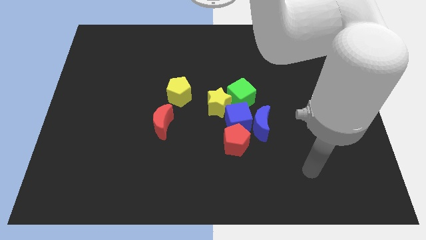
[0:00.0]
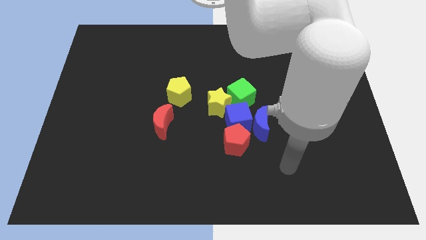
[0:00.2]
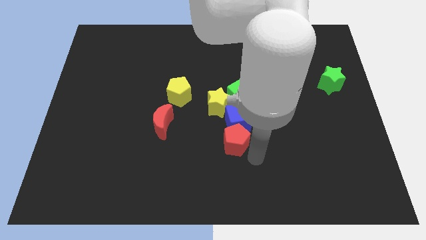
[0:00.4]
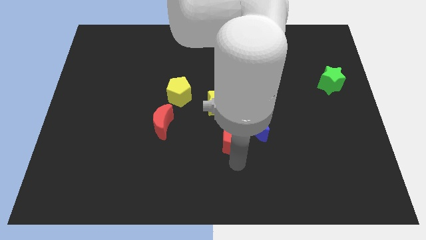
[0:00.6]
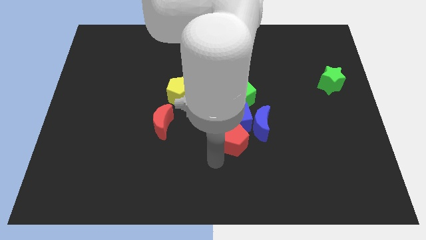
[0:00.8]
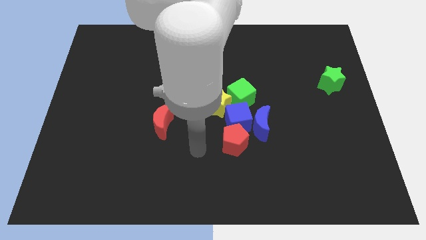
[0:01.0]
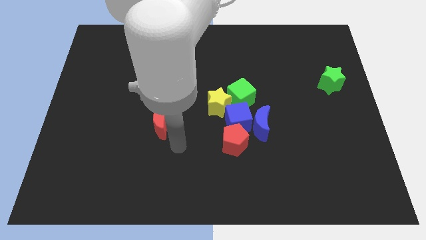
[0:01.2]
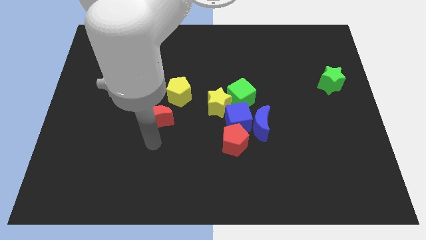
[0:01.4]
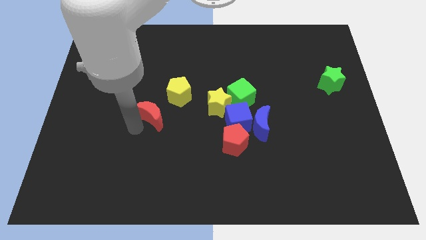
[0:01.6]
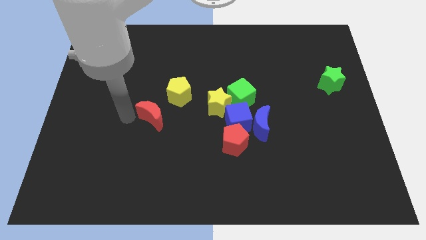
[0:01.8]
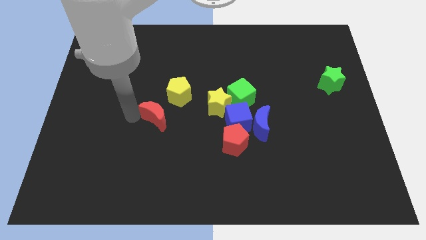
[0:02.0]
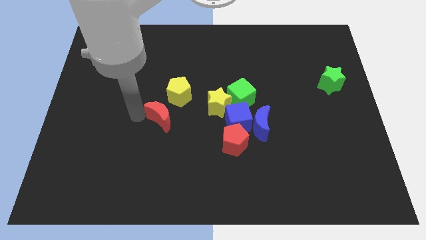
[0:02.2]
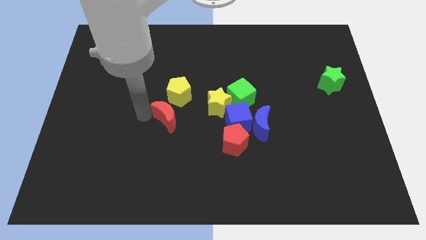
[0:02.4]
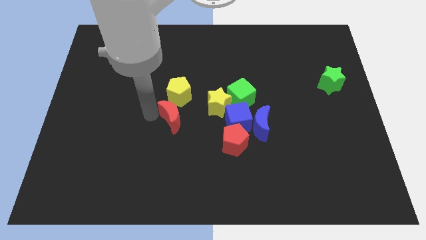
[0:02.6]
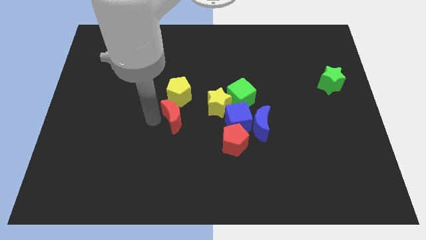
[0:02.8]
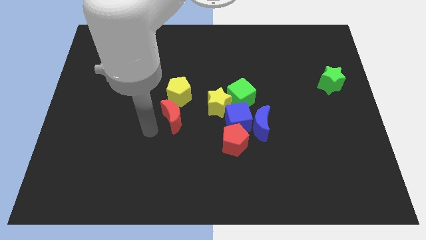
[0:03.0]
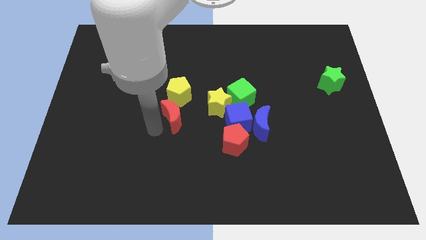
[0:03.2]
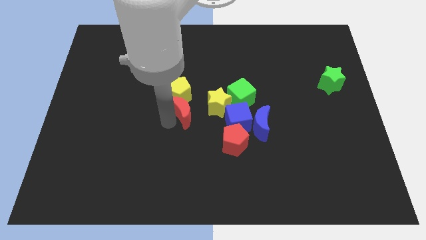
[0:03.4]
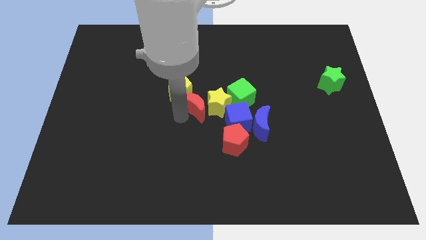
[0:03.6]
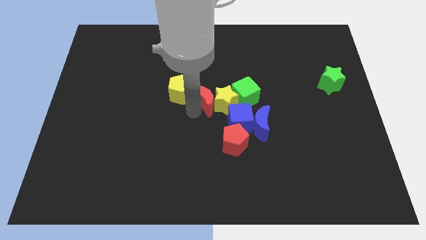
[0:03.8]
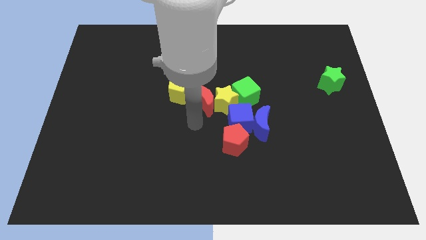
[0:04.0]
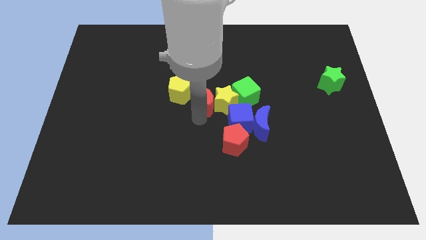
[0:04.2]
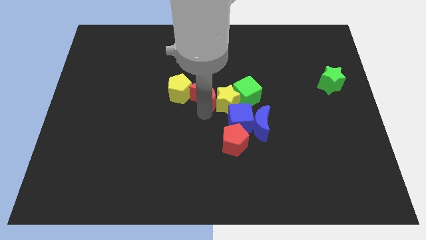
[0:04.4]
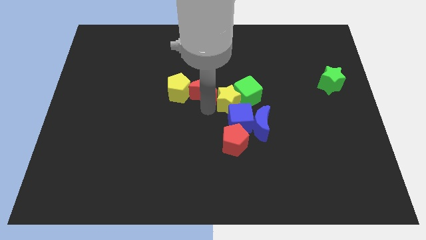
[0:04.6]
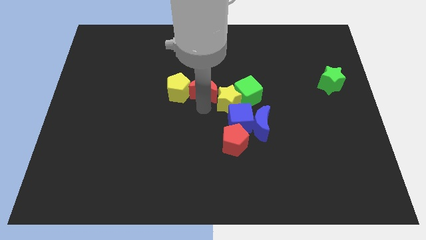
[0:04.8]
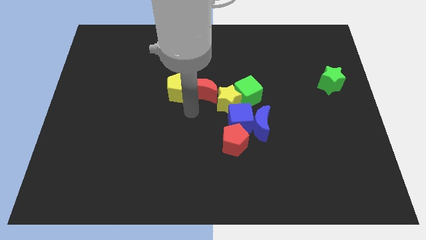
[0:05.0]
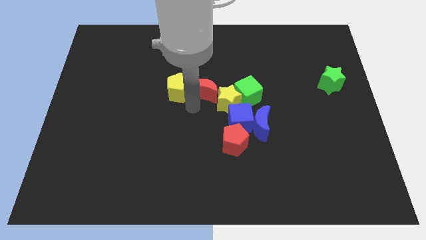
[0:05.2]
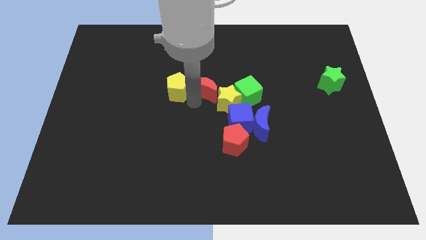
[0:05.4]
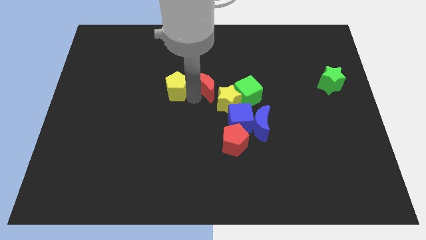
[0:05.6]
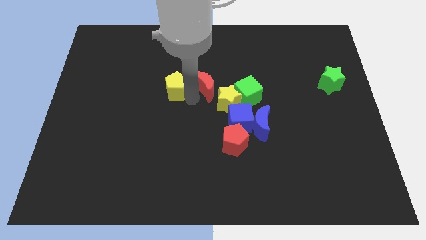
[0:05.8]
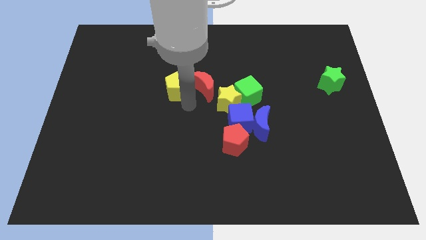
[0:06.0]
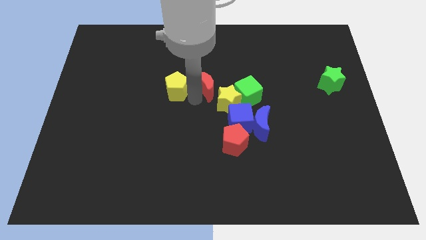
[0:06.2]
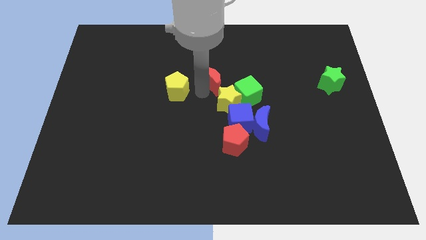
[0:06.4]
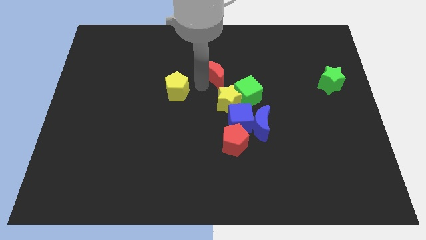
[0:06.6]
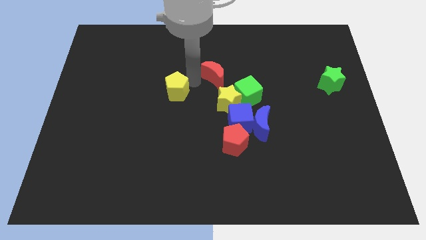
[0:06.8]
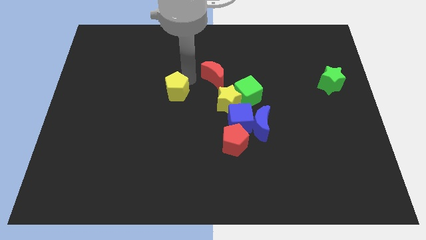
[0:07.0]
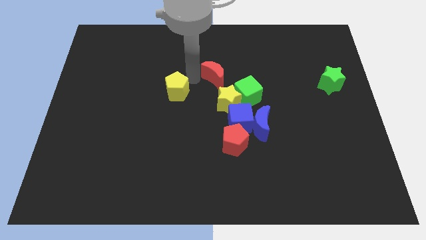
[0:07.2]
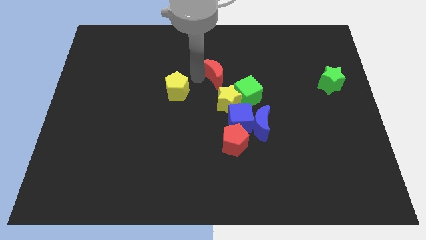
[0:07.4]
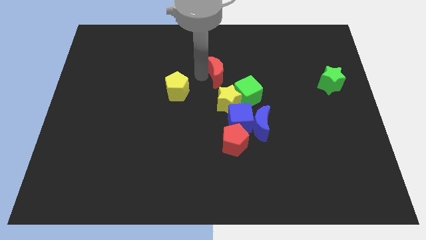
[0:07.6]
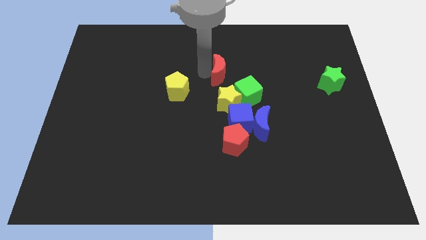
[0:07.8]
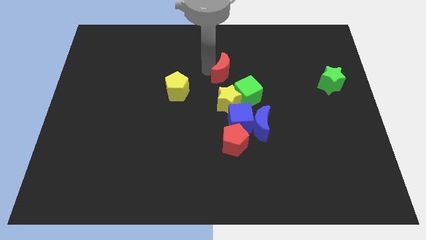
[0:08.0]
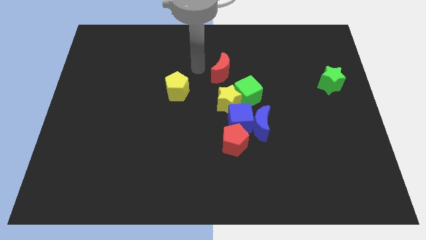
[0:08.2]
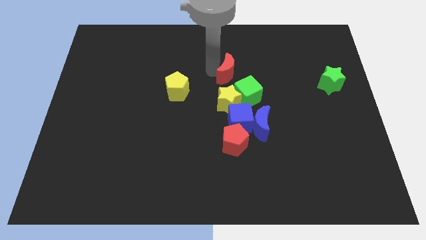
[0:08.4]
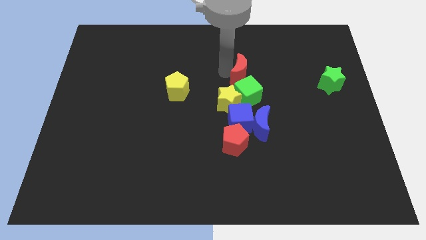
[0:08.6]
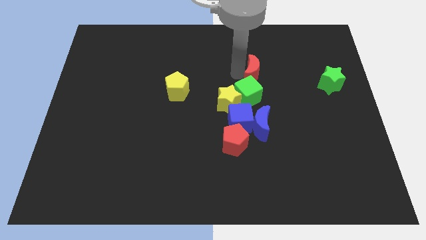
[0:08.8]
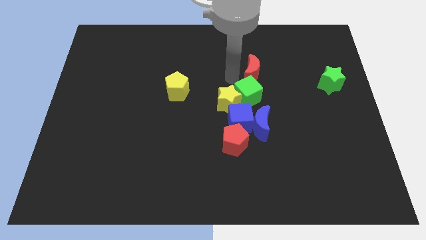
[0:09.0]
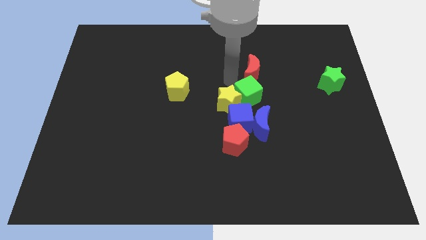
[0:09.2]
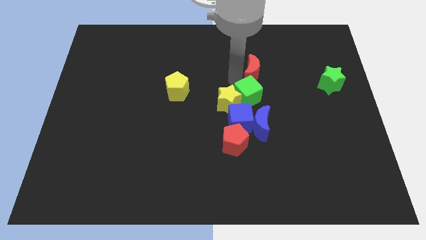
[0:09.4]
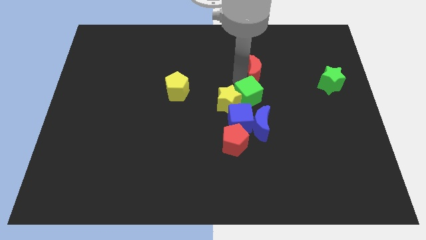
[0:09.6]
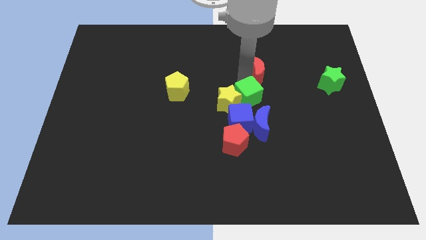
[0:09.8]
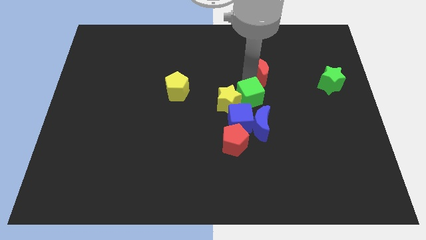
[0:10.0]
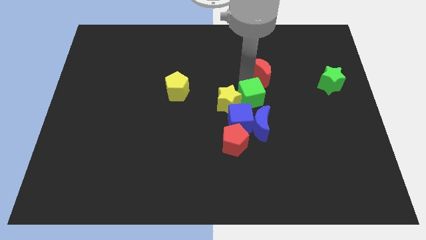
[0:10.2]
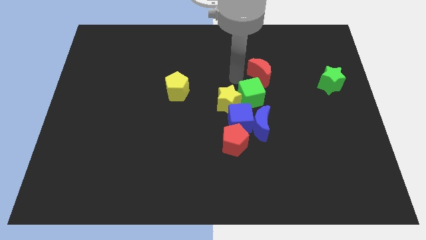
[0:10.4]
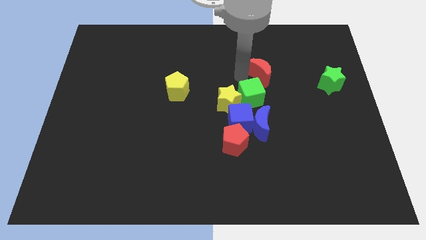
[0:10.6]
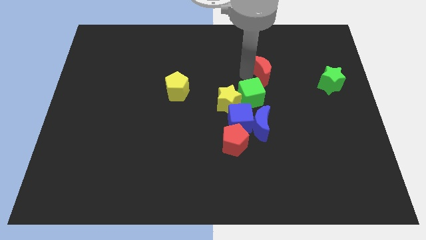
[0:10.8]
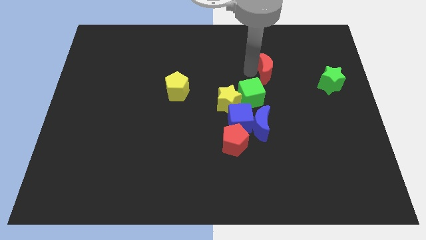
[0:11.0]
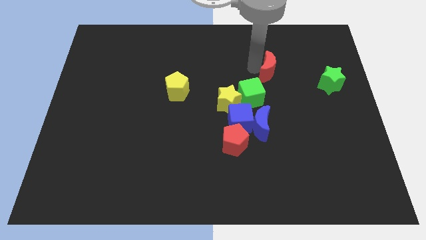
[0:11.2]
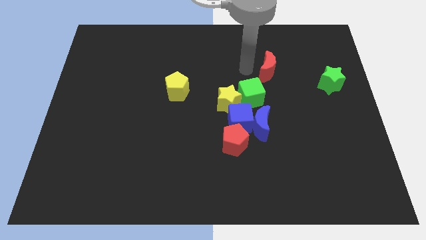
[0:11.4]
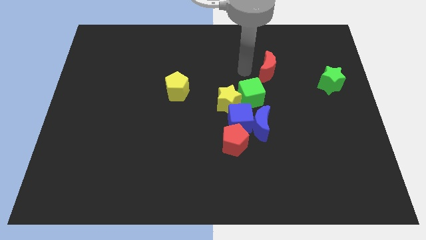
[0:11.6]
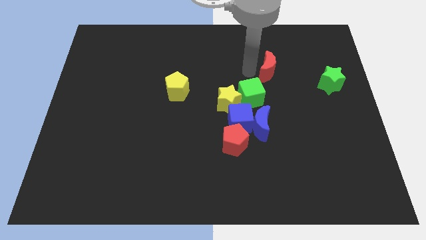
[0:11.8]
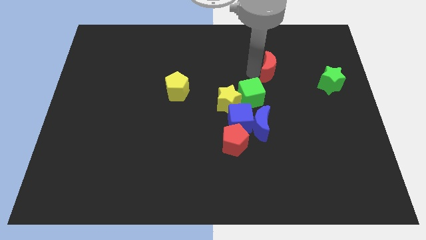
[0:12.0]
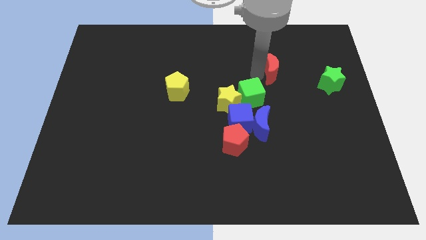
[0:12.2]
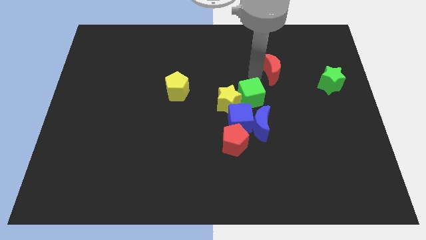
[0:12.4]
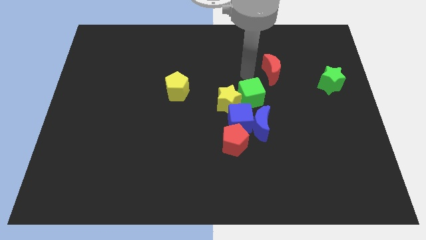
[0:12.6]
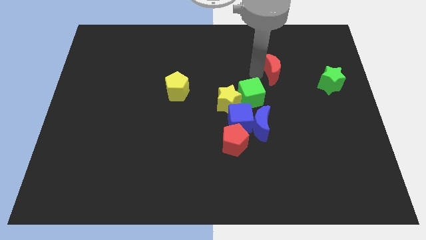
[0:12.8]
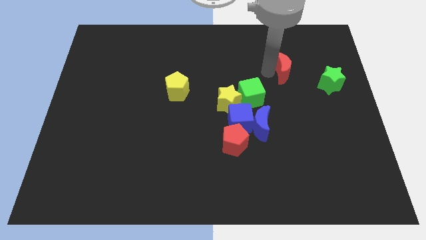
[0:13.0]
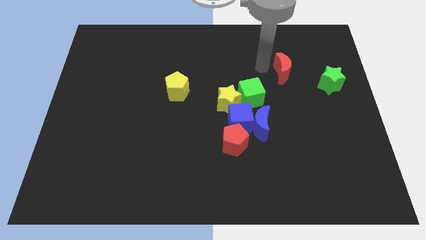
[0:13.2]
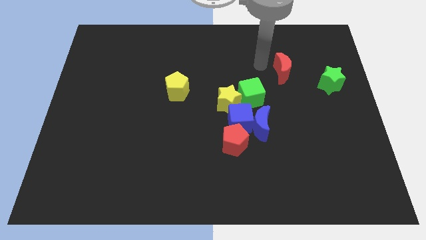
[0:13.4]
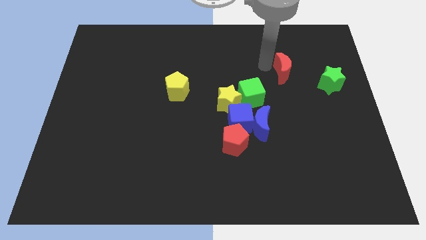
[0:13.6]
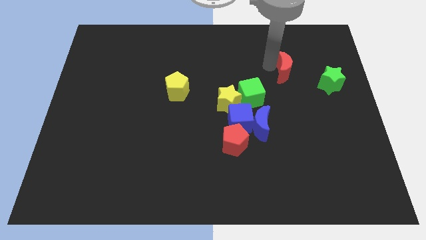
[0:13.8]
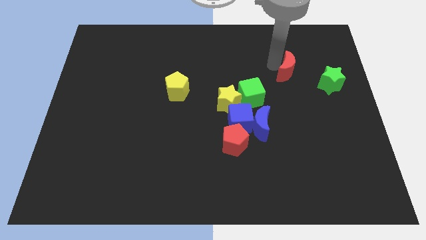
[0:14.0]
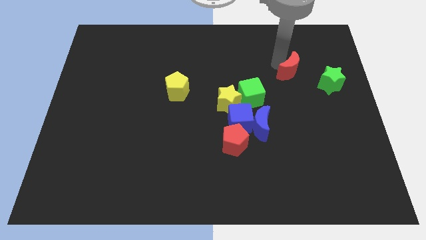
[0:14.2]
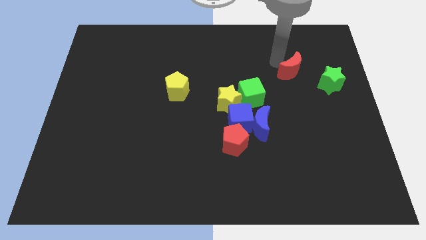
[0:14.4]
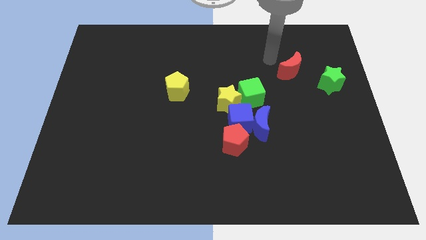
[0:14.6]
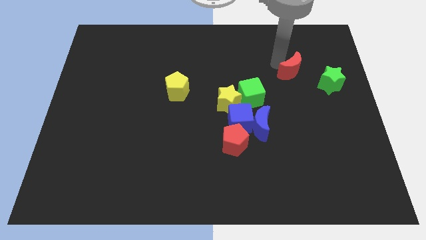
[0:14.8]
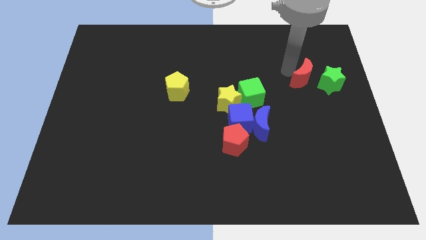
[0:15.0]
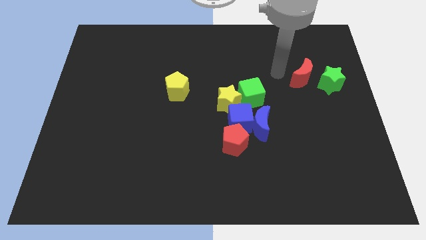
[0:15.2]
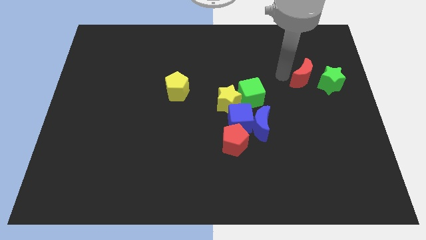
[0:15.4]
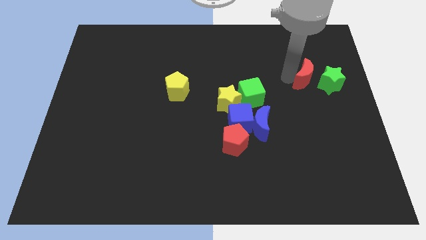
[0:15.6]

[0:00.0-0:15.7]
push the red moon close to the green star
